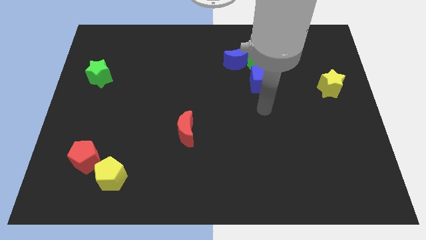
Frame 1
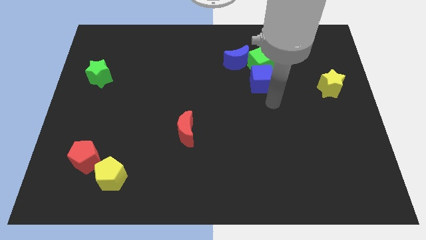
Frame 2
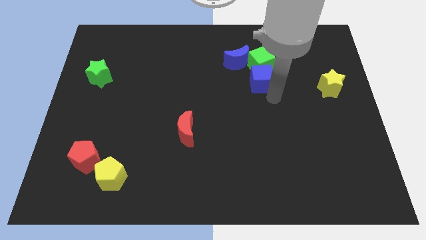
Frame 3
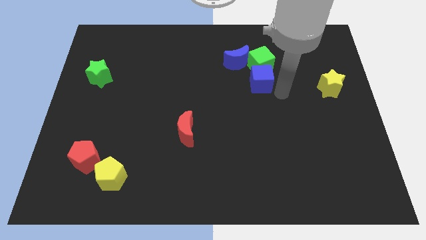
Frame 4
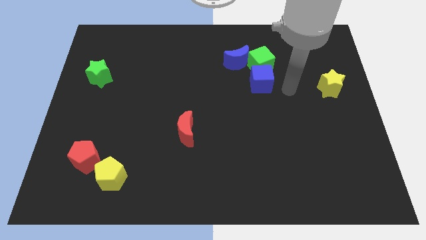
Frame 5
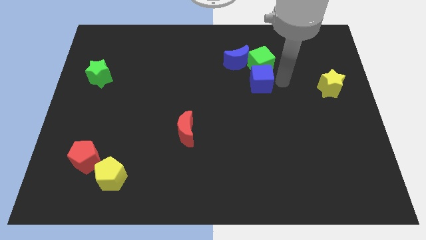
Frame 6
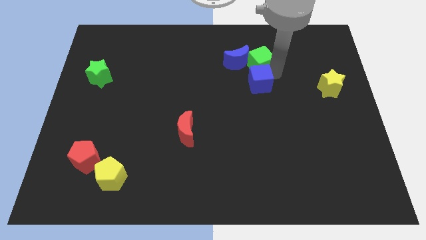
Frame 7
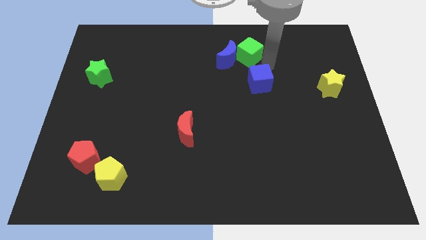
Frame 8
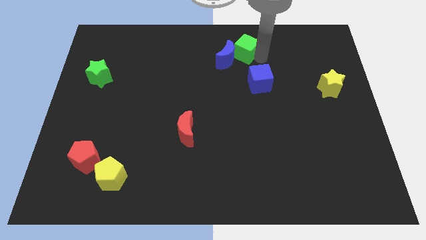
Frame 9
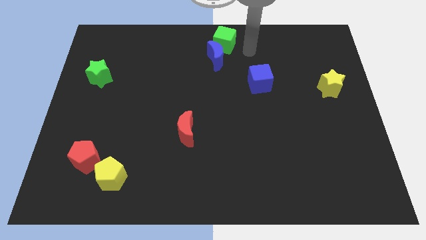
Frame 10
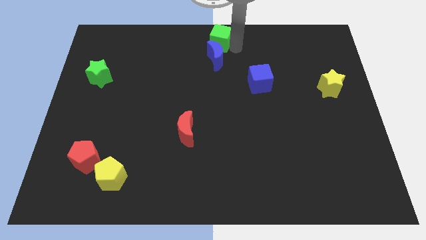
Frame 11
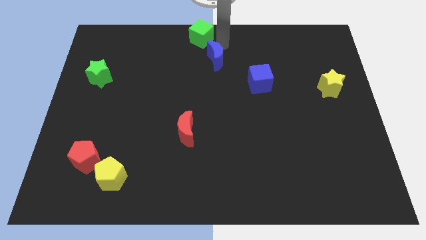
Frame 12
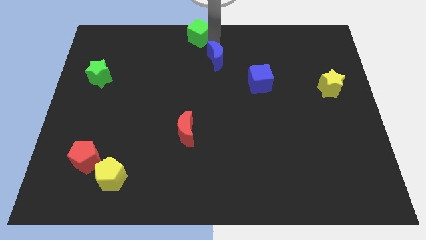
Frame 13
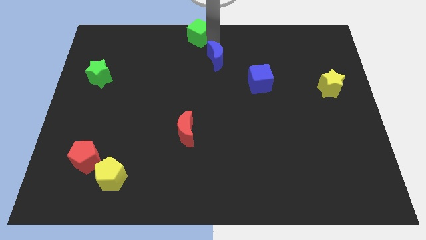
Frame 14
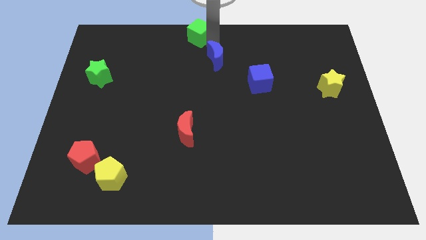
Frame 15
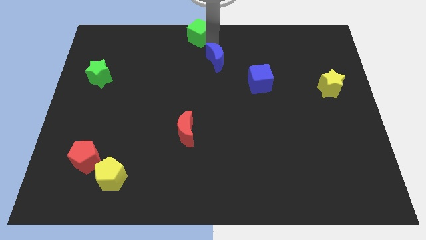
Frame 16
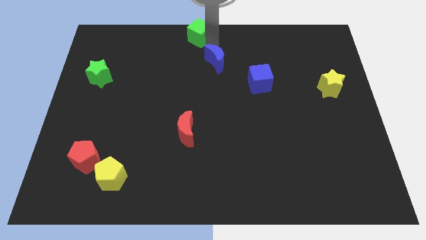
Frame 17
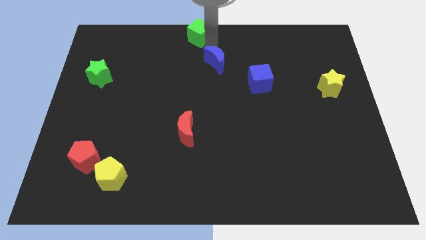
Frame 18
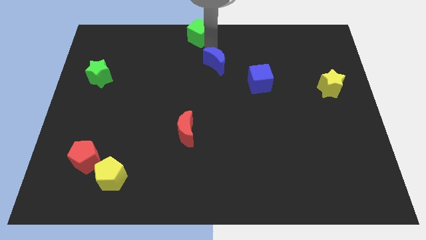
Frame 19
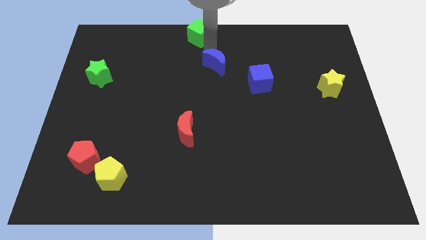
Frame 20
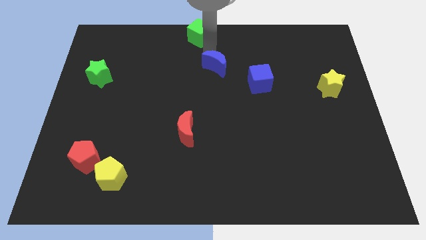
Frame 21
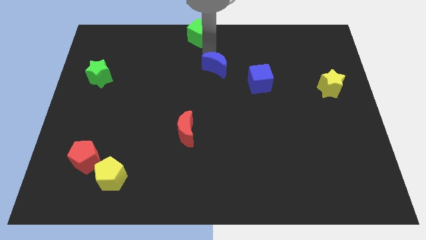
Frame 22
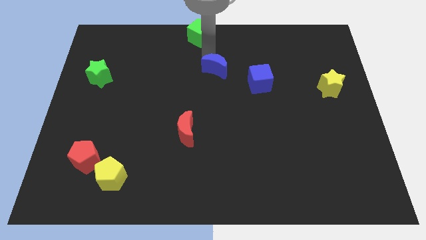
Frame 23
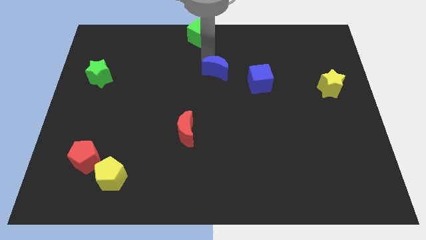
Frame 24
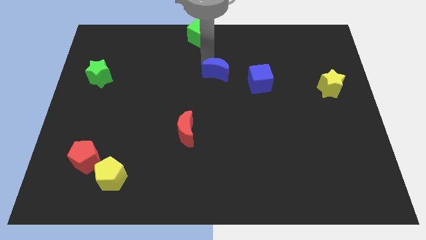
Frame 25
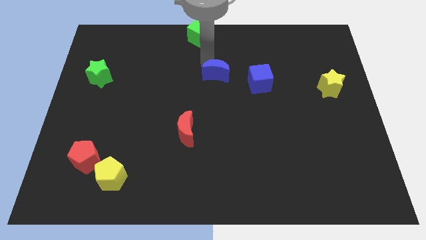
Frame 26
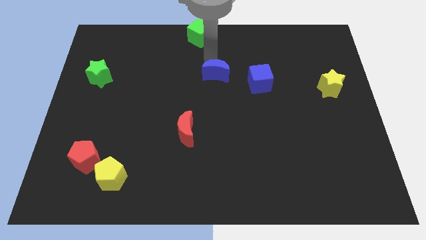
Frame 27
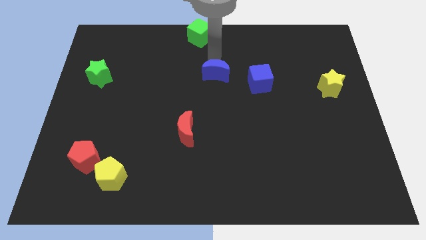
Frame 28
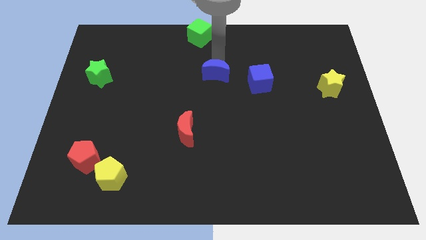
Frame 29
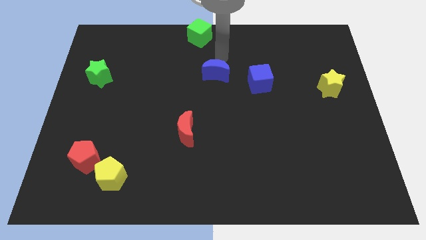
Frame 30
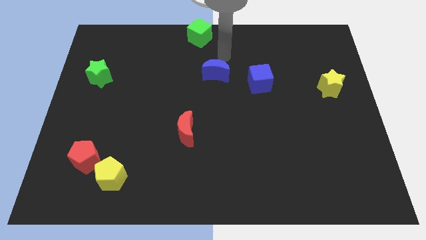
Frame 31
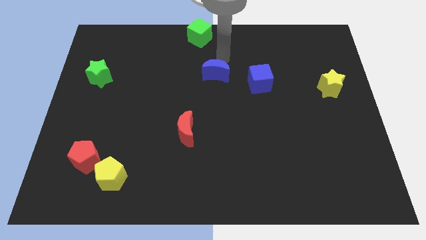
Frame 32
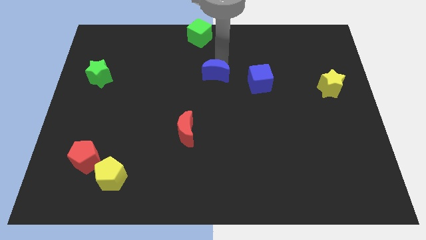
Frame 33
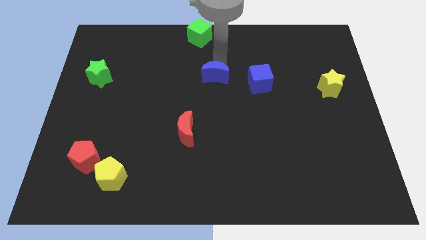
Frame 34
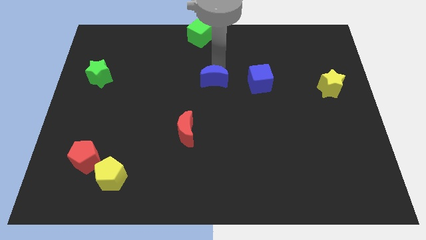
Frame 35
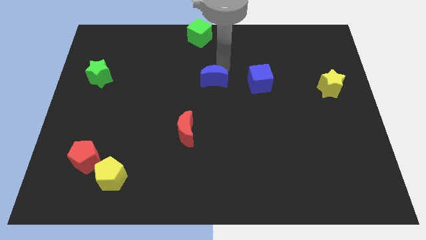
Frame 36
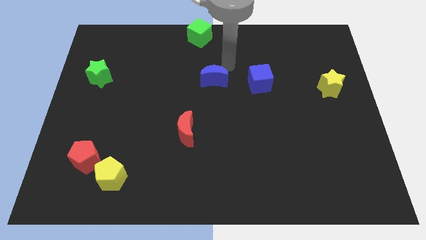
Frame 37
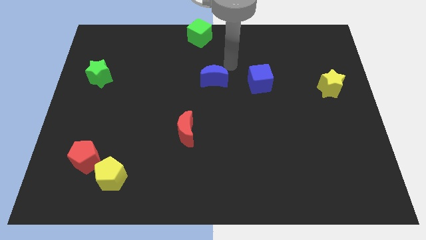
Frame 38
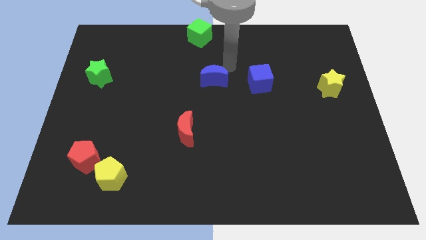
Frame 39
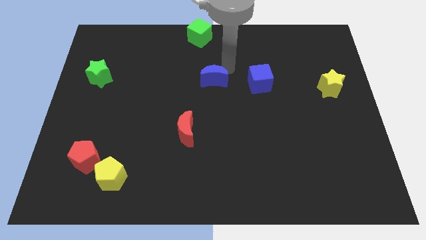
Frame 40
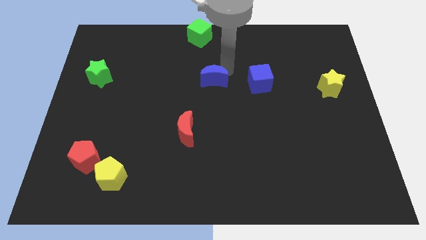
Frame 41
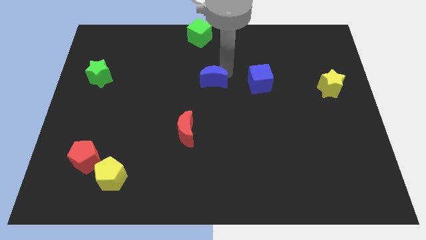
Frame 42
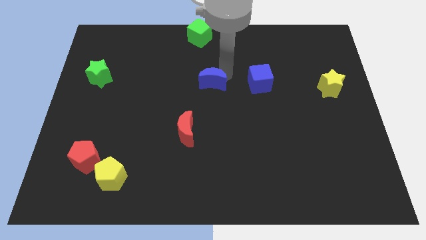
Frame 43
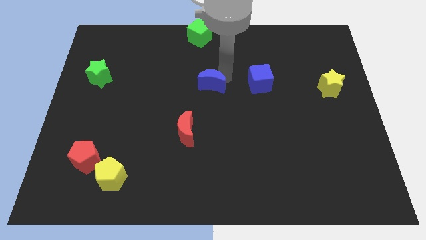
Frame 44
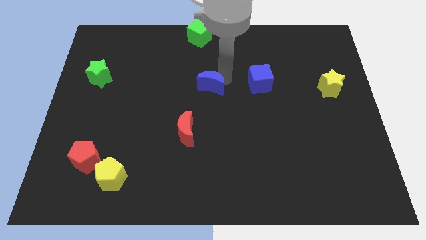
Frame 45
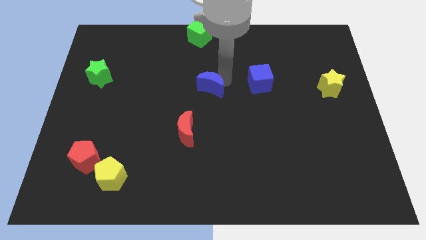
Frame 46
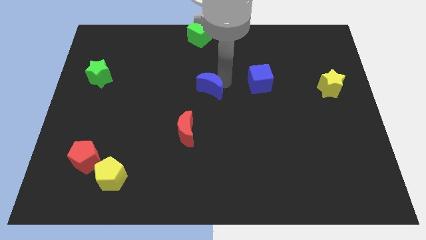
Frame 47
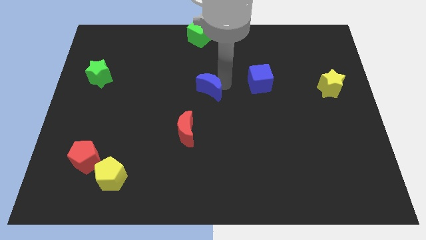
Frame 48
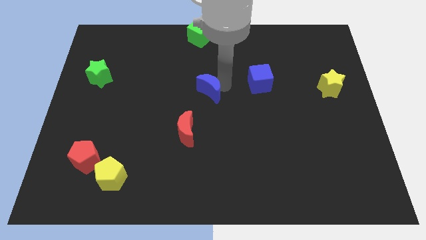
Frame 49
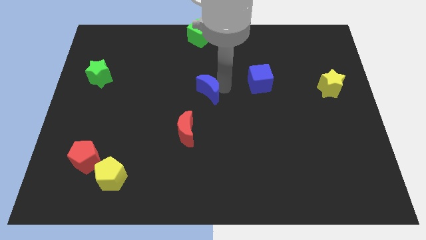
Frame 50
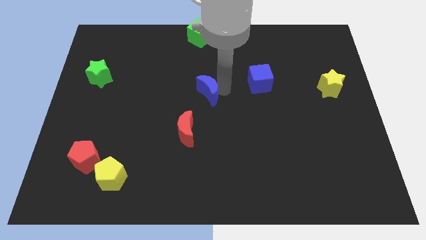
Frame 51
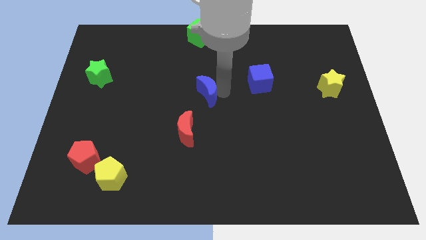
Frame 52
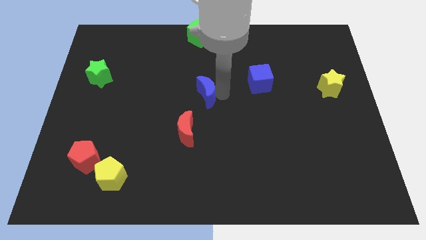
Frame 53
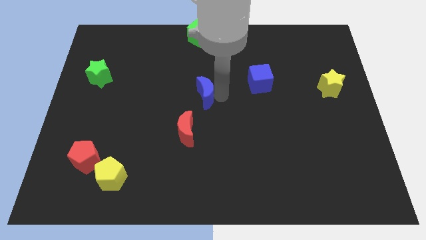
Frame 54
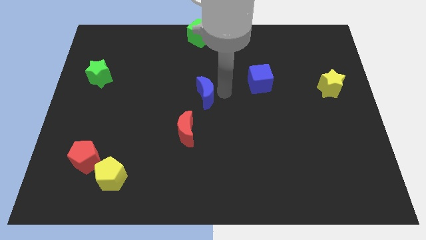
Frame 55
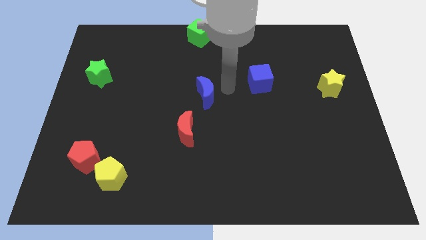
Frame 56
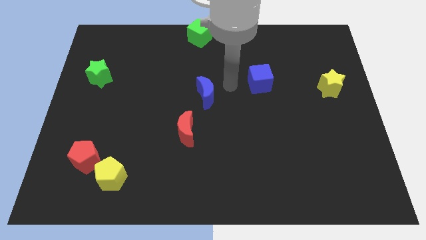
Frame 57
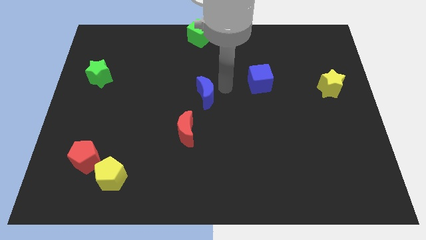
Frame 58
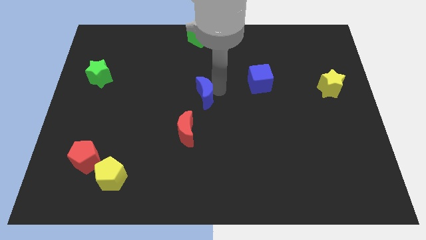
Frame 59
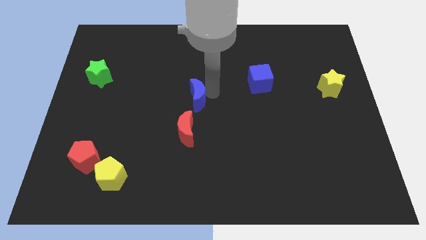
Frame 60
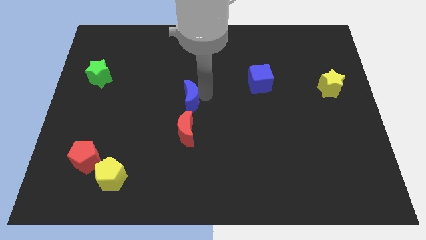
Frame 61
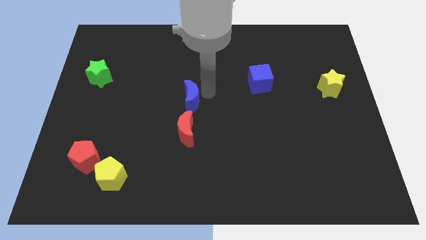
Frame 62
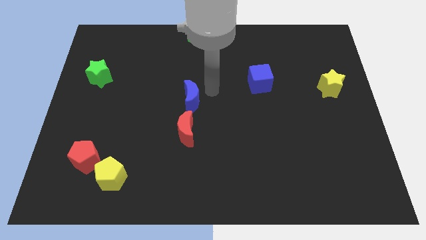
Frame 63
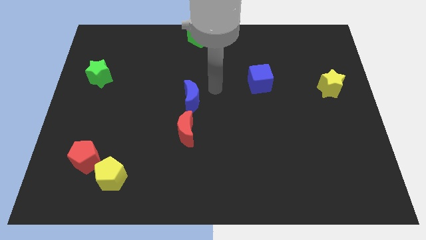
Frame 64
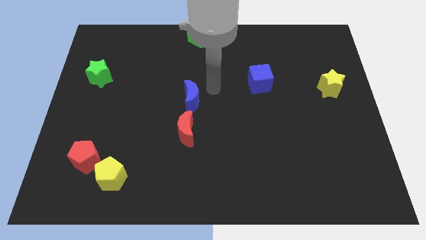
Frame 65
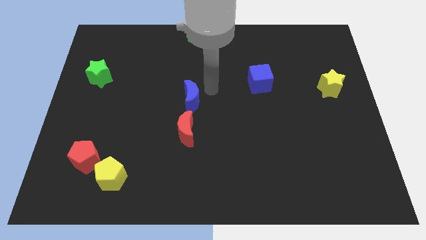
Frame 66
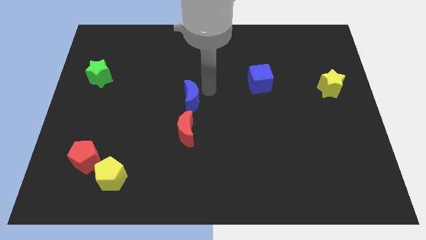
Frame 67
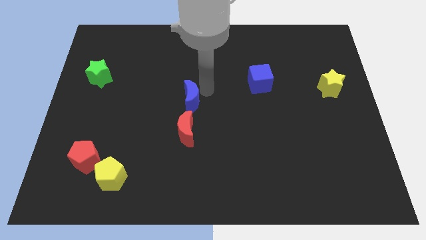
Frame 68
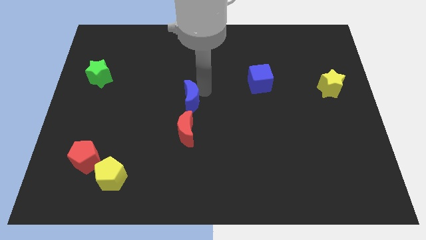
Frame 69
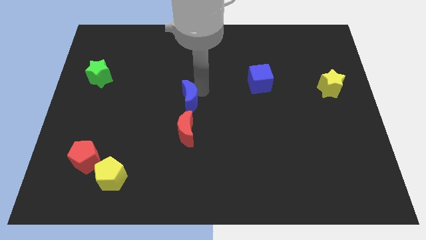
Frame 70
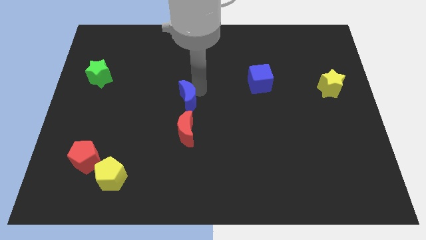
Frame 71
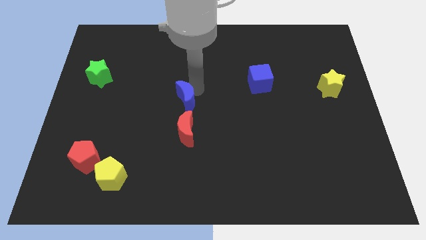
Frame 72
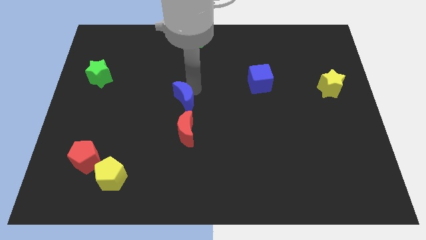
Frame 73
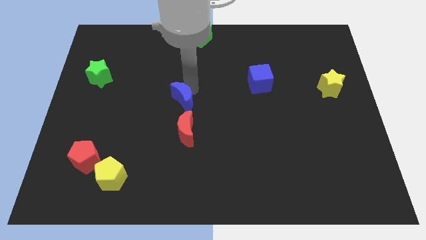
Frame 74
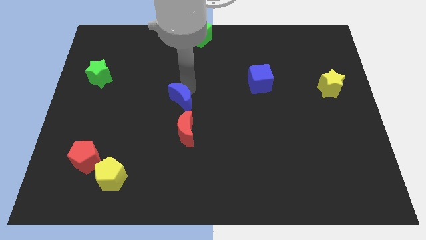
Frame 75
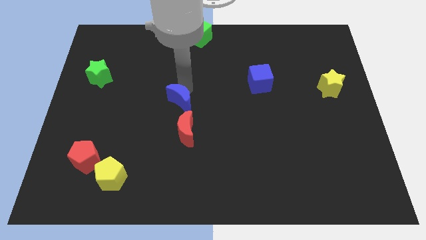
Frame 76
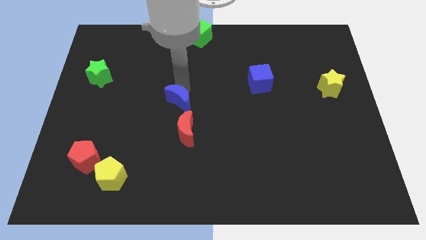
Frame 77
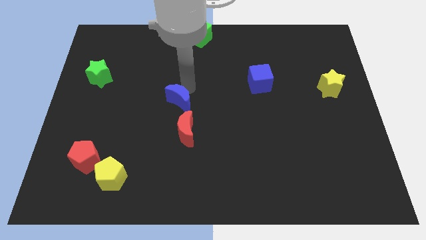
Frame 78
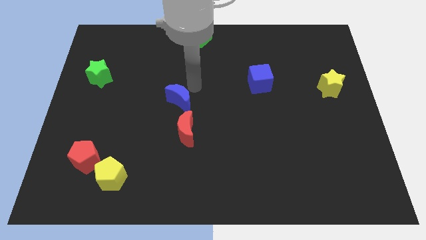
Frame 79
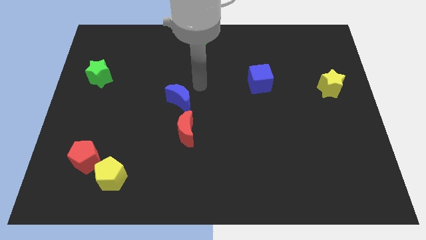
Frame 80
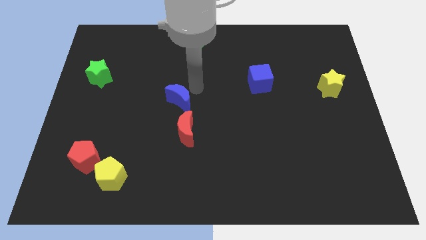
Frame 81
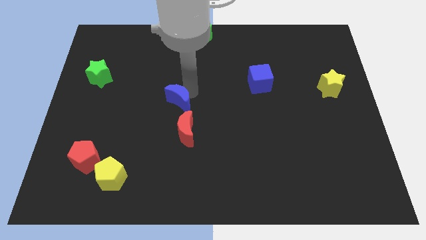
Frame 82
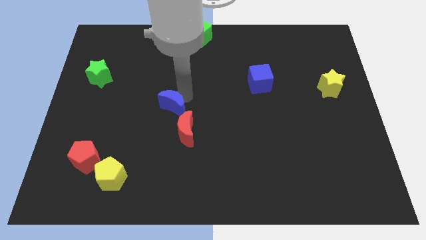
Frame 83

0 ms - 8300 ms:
move the blue moon diagonally down and left
